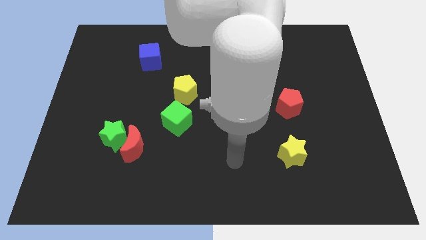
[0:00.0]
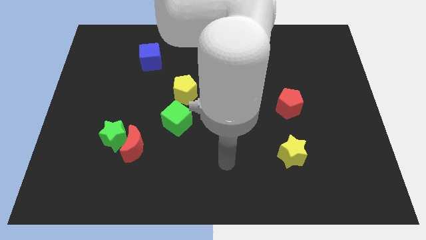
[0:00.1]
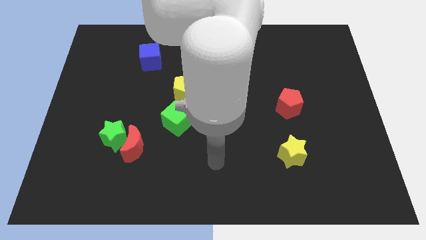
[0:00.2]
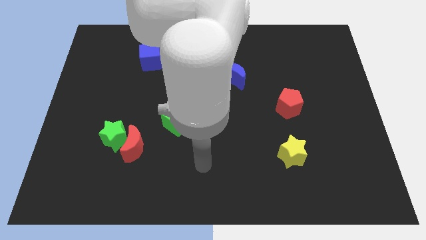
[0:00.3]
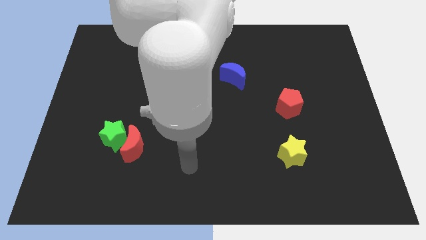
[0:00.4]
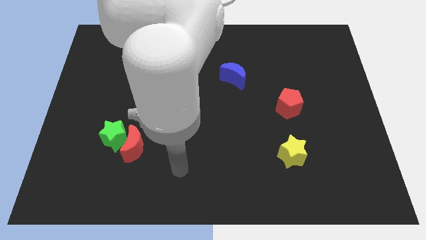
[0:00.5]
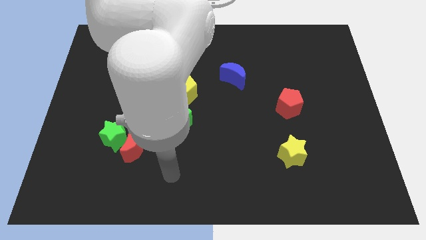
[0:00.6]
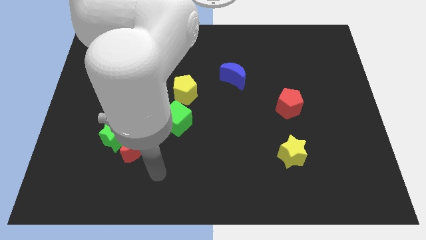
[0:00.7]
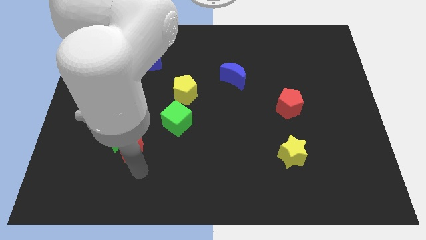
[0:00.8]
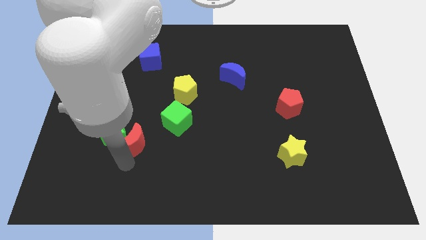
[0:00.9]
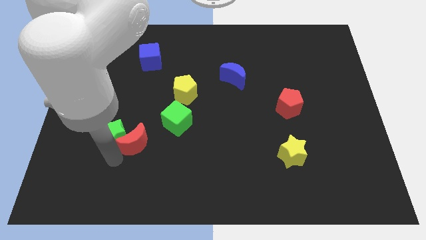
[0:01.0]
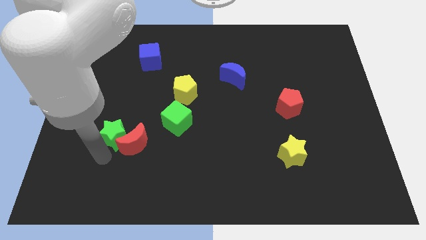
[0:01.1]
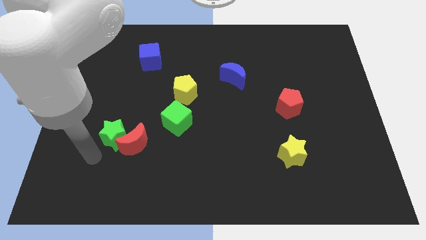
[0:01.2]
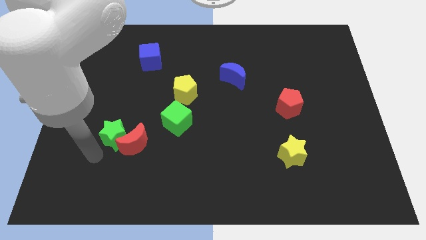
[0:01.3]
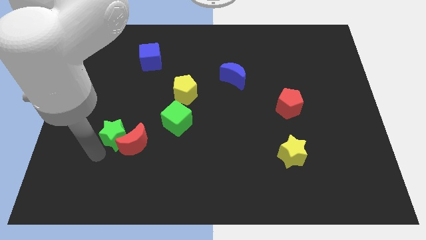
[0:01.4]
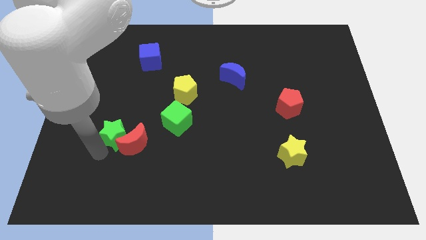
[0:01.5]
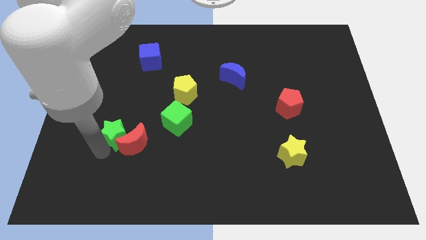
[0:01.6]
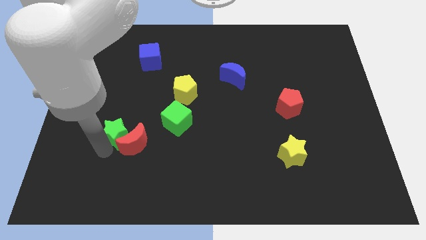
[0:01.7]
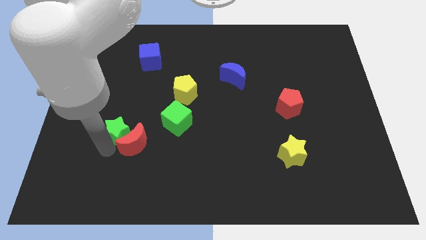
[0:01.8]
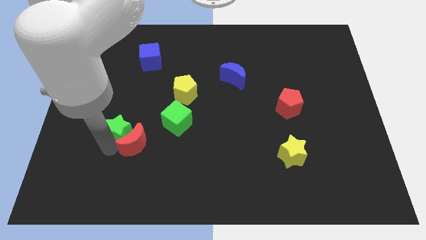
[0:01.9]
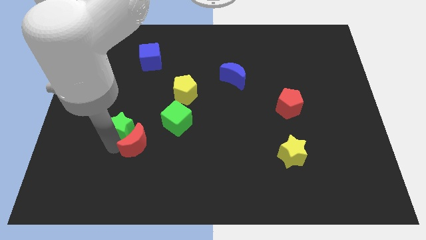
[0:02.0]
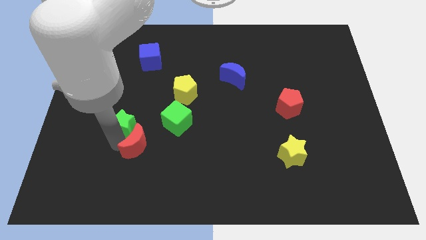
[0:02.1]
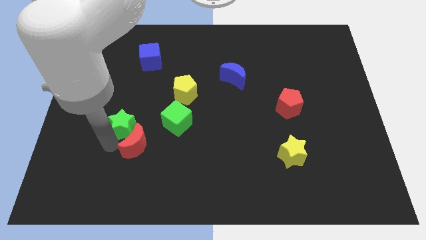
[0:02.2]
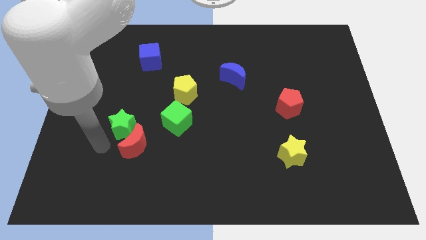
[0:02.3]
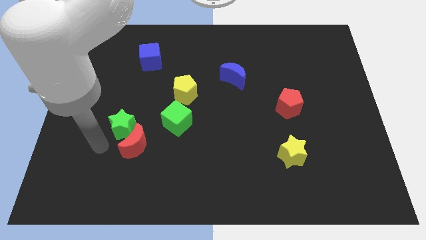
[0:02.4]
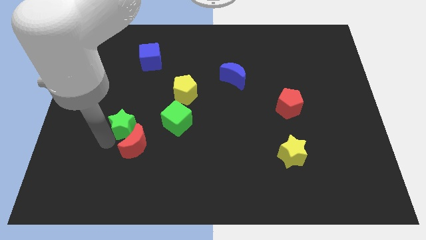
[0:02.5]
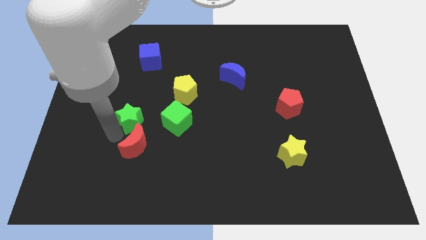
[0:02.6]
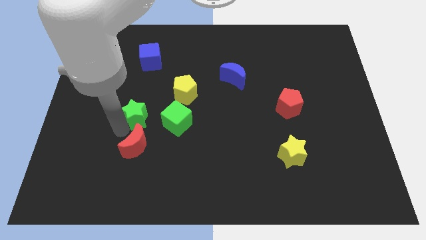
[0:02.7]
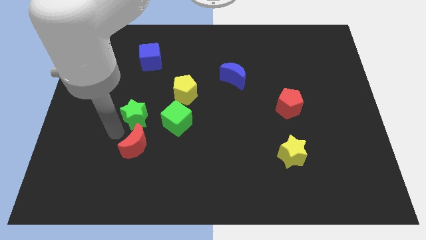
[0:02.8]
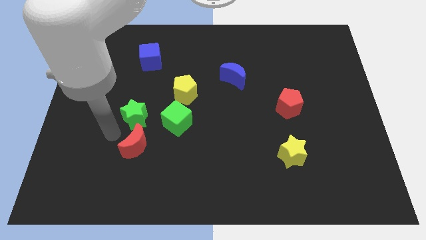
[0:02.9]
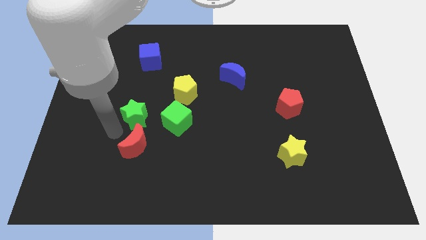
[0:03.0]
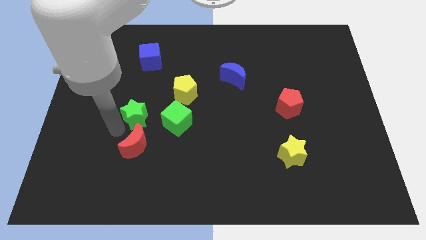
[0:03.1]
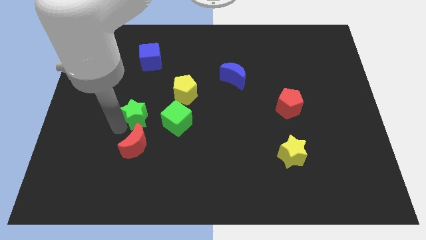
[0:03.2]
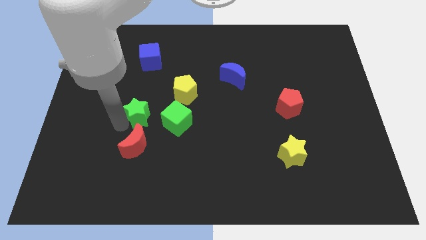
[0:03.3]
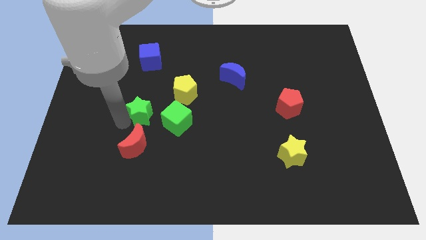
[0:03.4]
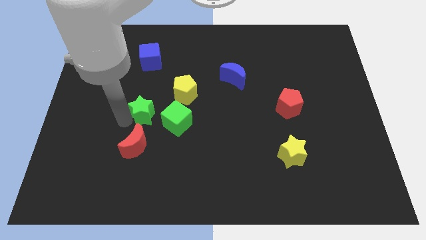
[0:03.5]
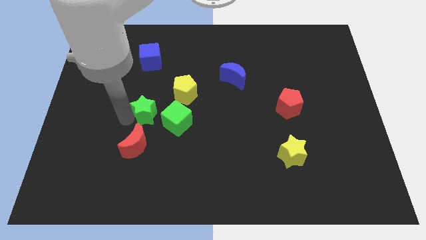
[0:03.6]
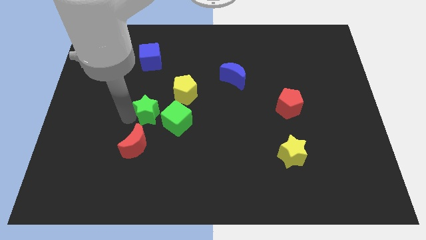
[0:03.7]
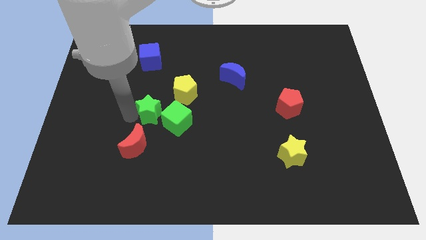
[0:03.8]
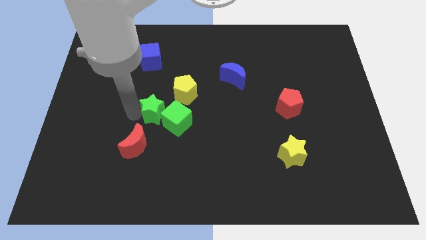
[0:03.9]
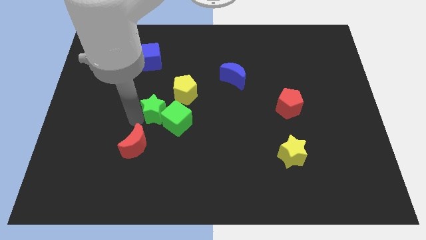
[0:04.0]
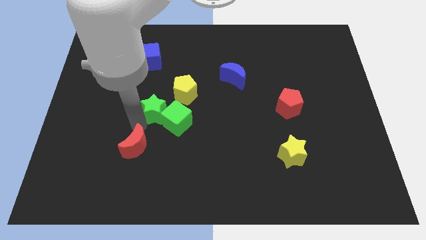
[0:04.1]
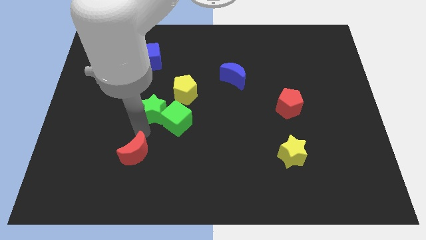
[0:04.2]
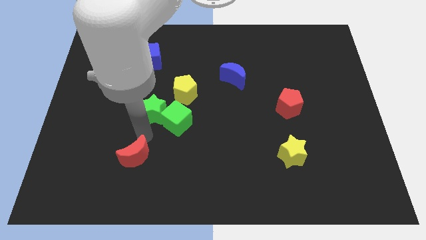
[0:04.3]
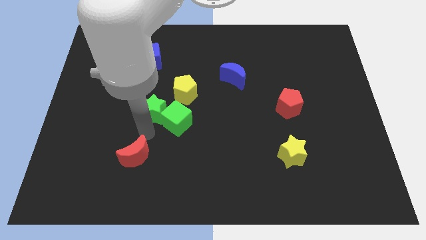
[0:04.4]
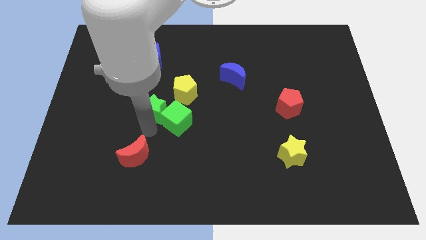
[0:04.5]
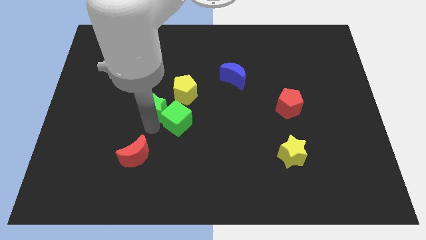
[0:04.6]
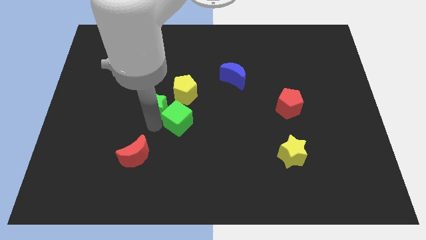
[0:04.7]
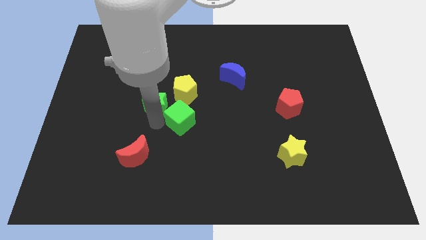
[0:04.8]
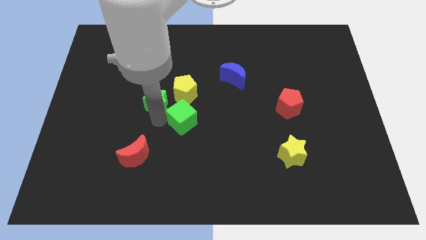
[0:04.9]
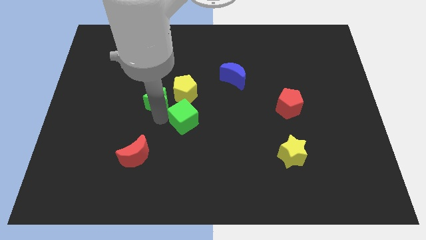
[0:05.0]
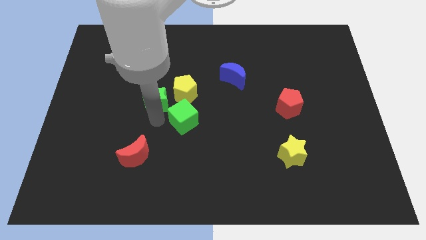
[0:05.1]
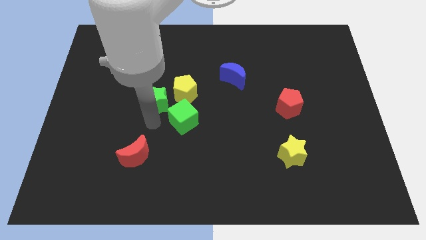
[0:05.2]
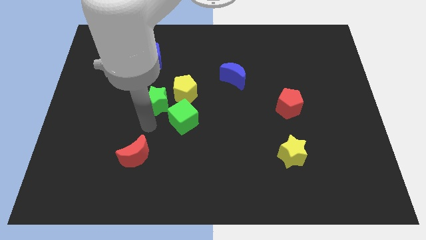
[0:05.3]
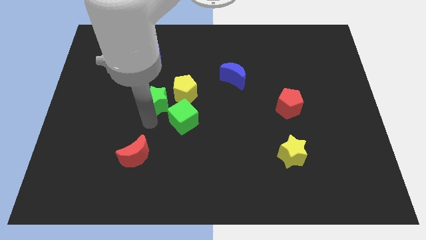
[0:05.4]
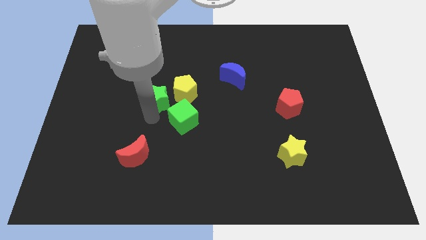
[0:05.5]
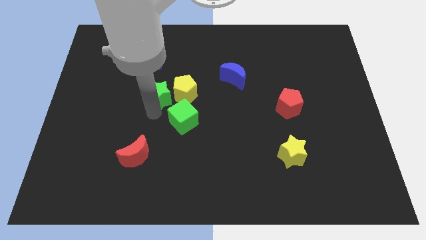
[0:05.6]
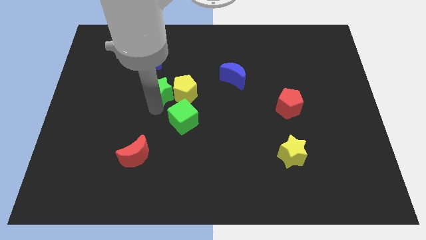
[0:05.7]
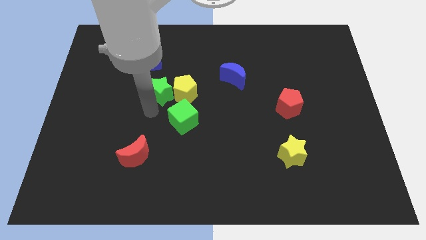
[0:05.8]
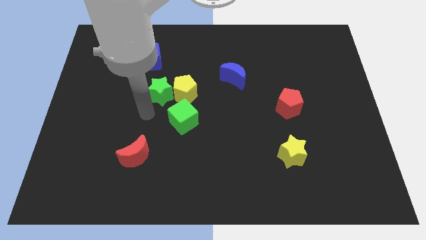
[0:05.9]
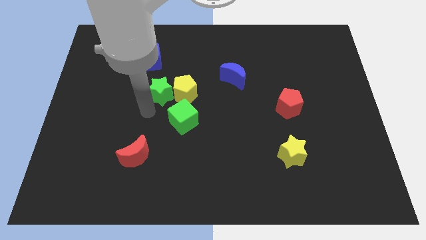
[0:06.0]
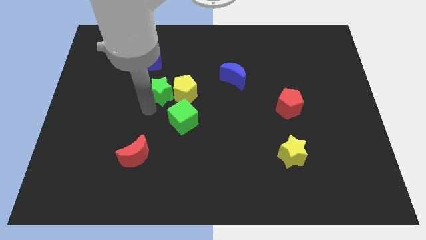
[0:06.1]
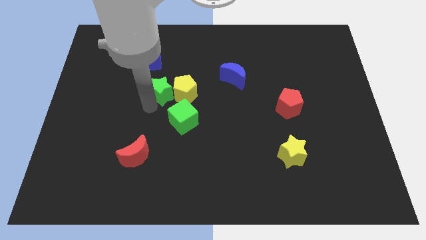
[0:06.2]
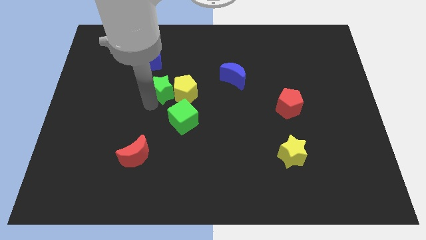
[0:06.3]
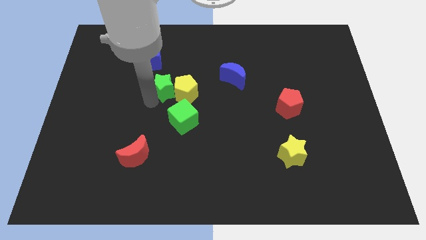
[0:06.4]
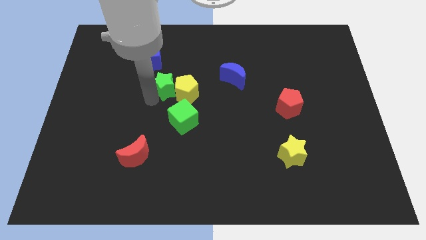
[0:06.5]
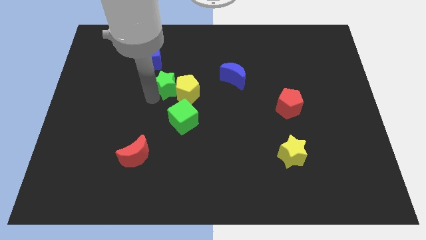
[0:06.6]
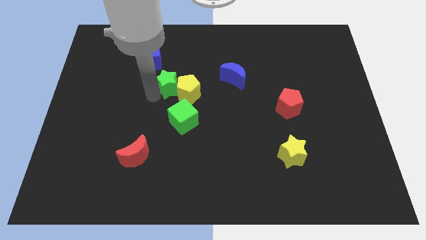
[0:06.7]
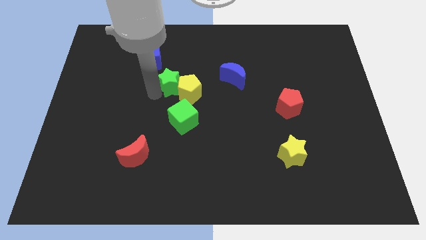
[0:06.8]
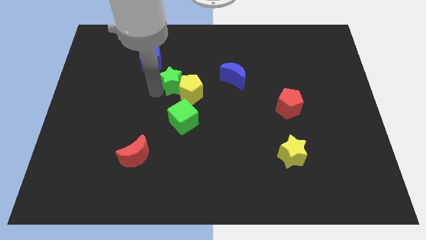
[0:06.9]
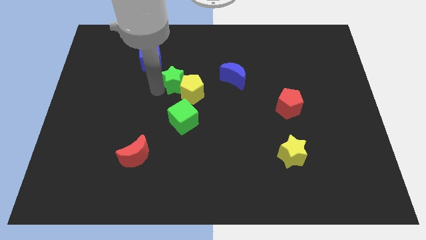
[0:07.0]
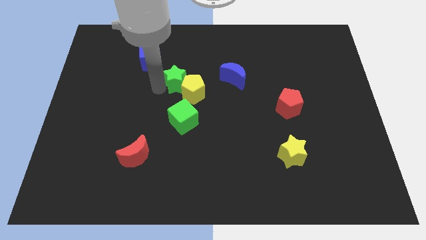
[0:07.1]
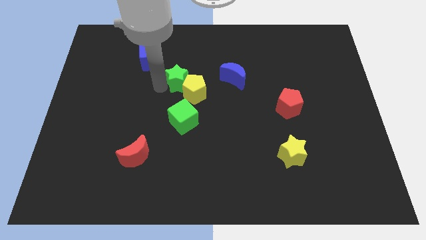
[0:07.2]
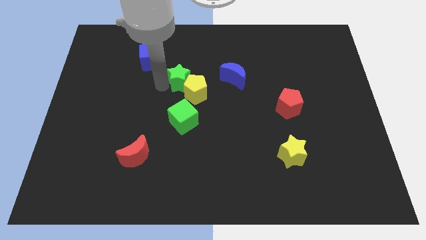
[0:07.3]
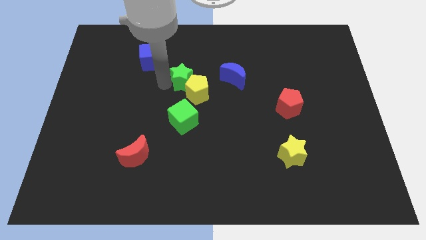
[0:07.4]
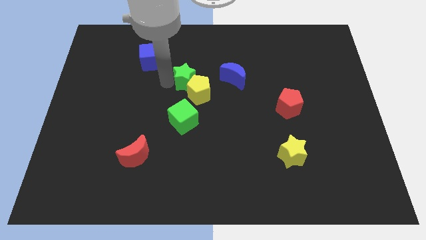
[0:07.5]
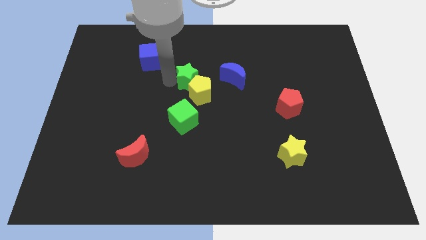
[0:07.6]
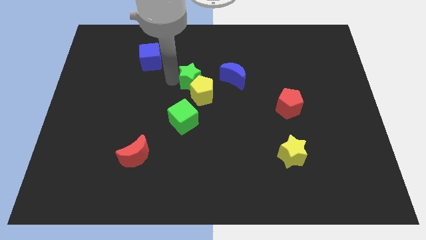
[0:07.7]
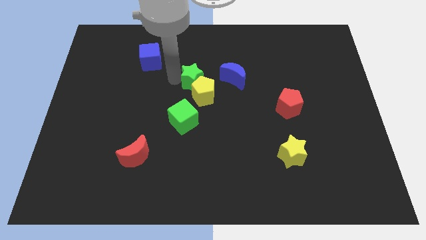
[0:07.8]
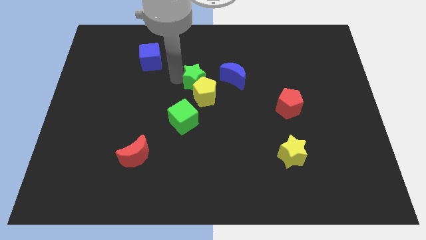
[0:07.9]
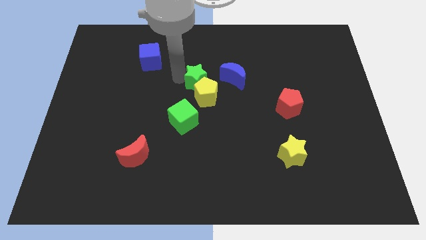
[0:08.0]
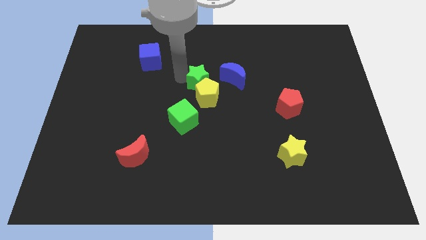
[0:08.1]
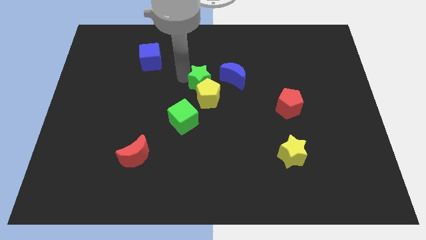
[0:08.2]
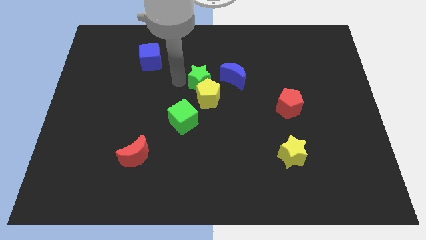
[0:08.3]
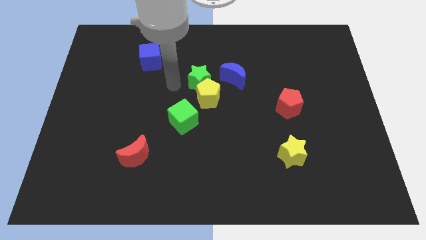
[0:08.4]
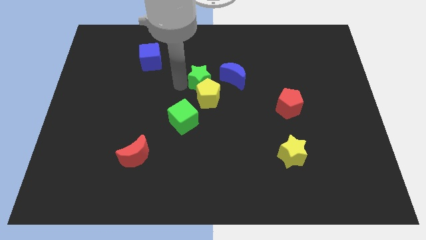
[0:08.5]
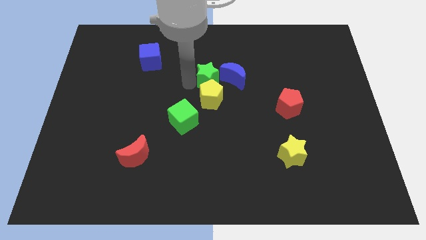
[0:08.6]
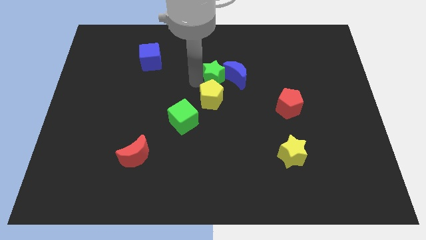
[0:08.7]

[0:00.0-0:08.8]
push the green star to the blue moon
